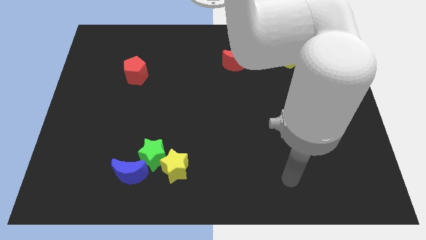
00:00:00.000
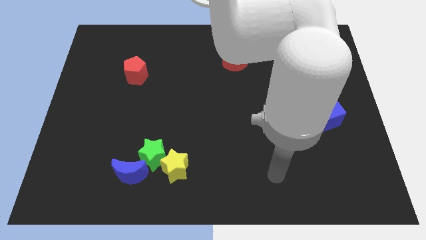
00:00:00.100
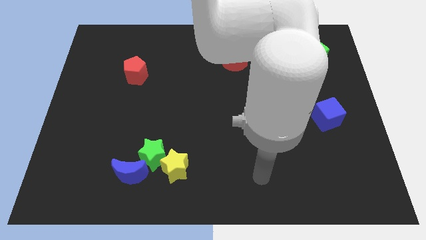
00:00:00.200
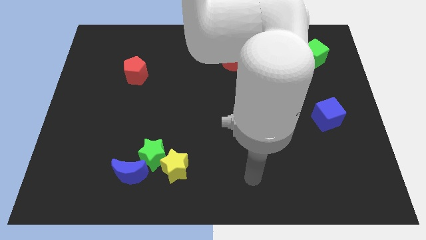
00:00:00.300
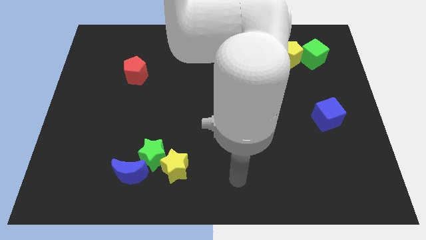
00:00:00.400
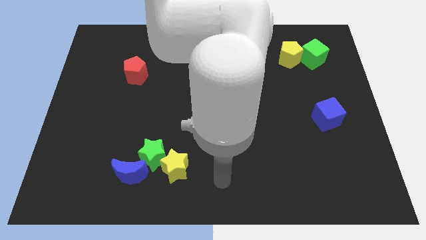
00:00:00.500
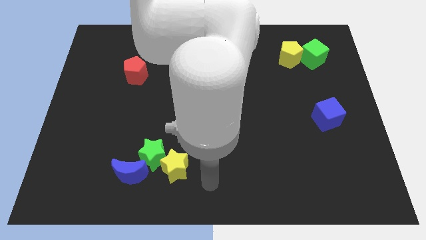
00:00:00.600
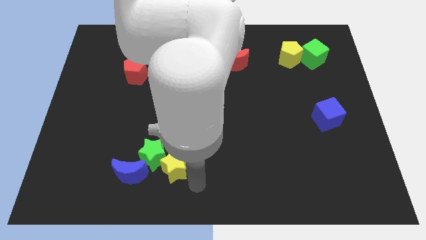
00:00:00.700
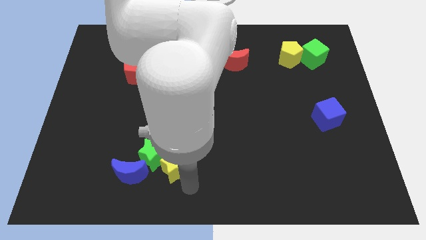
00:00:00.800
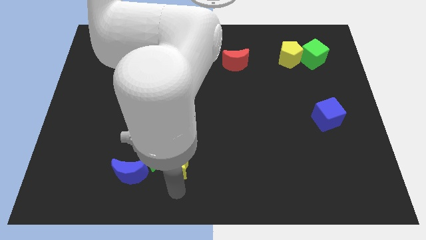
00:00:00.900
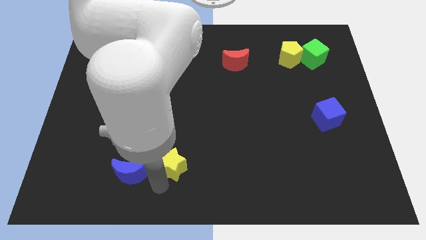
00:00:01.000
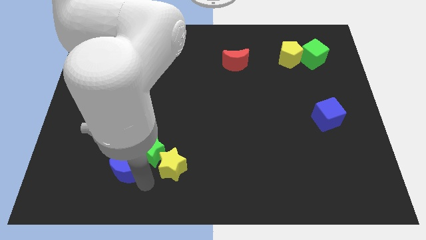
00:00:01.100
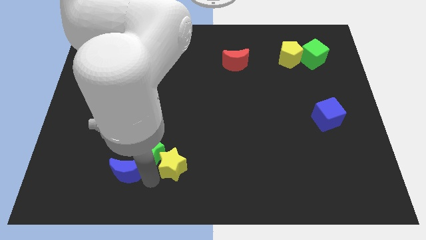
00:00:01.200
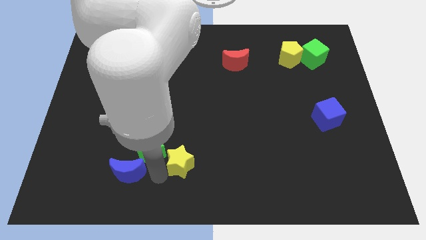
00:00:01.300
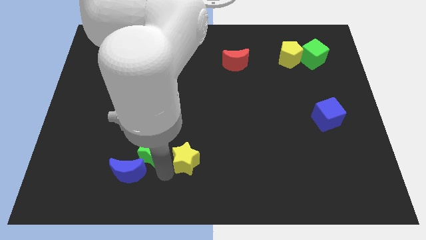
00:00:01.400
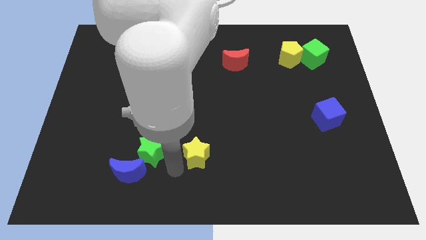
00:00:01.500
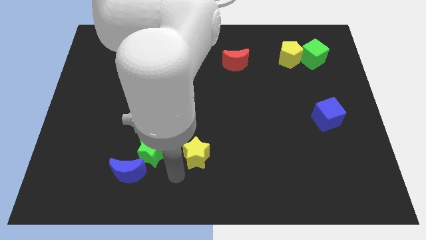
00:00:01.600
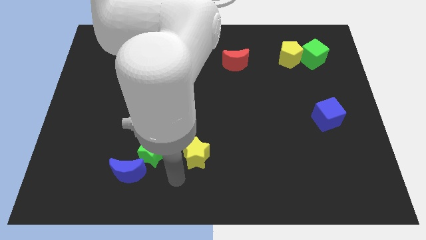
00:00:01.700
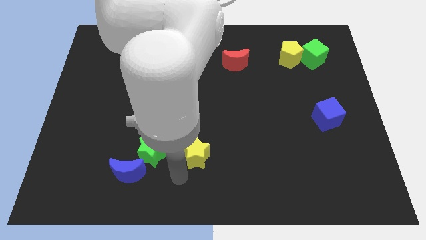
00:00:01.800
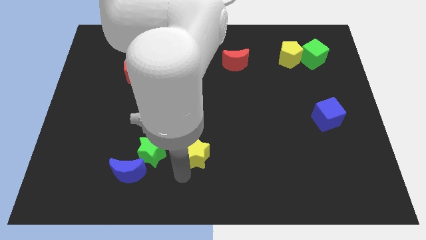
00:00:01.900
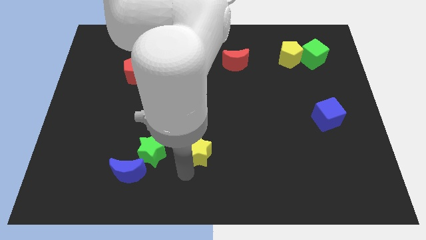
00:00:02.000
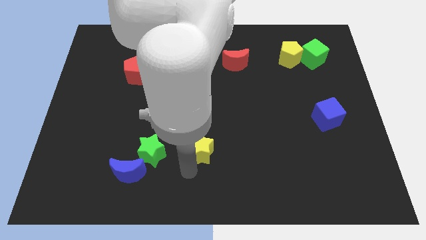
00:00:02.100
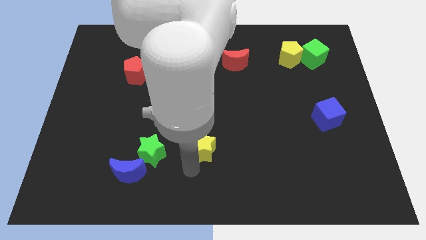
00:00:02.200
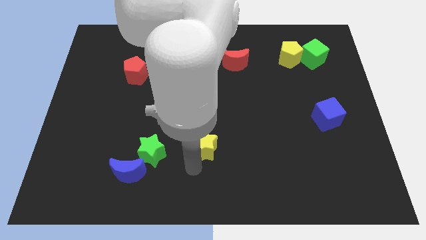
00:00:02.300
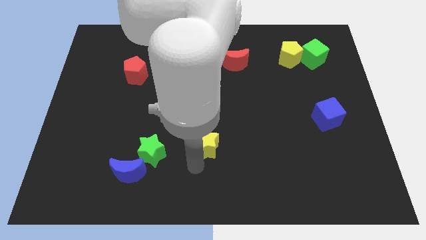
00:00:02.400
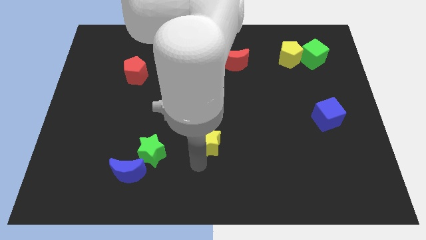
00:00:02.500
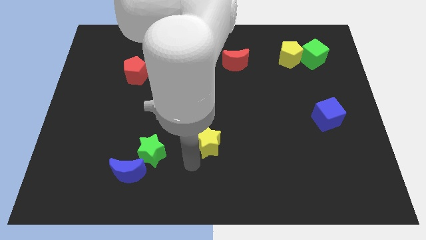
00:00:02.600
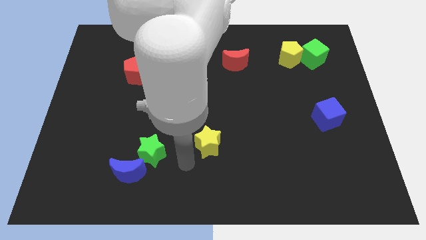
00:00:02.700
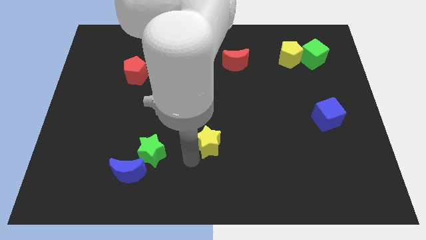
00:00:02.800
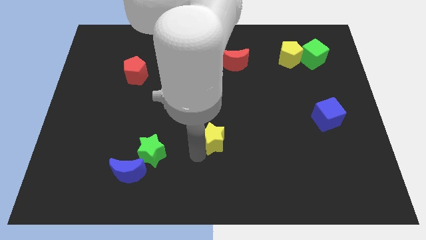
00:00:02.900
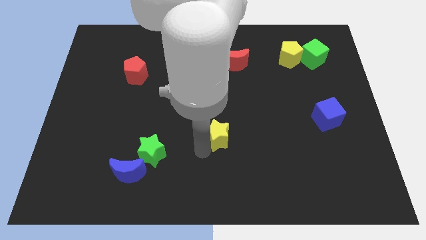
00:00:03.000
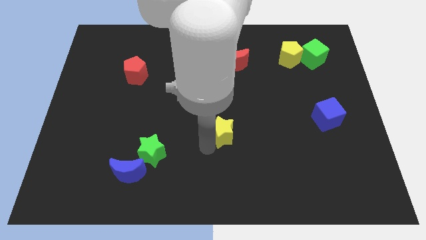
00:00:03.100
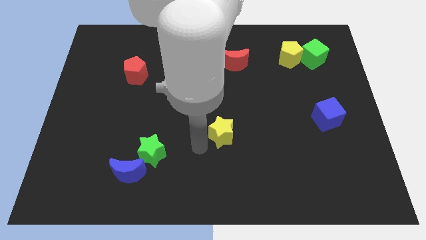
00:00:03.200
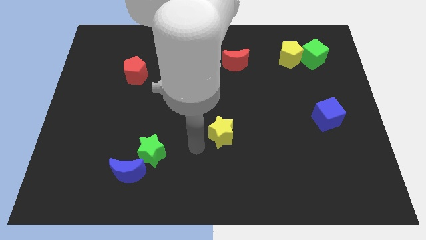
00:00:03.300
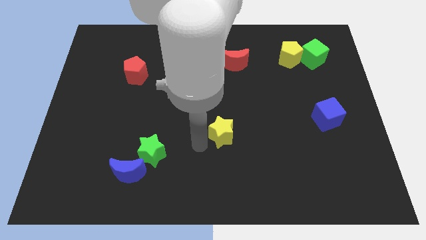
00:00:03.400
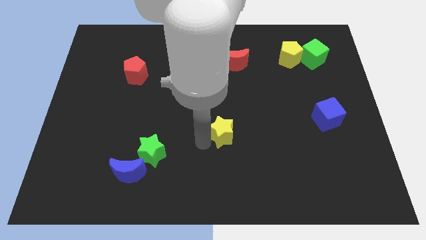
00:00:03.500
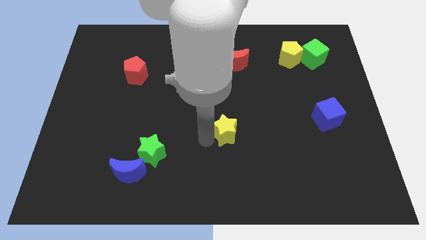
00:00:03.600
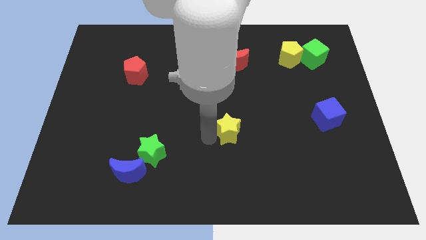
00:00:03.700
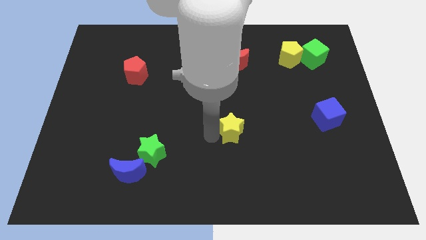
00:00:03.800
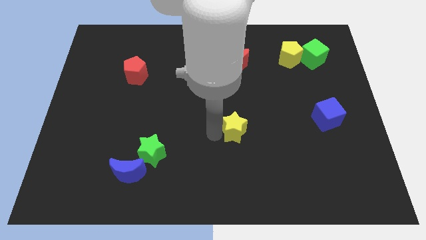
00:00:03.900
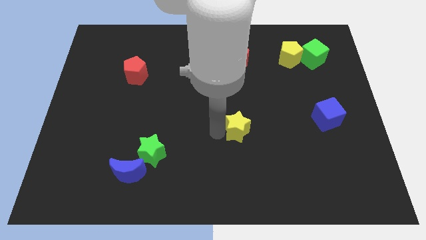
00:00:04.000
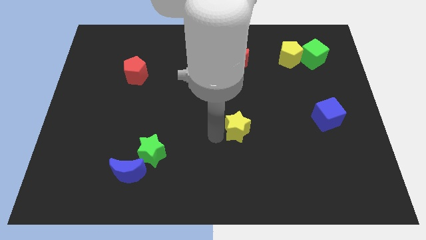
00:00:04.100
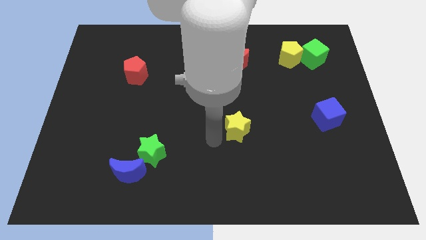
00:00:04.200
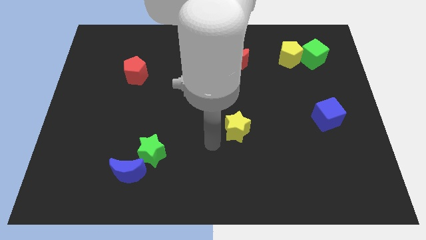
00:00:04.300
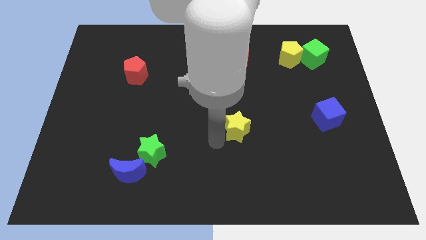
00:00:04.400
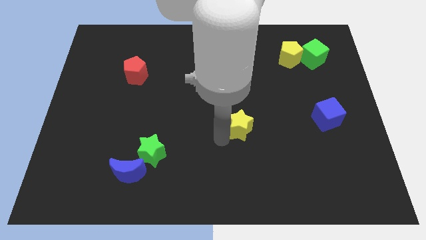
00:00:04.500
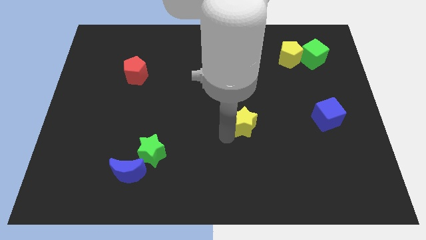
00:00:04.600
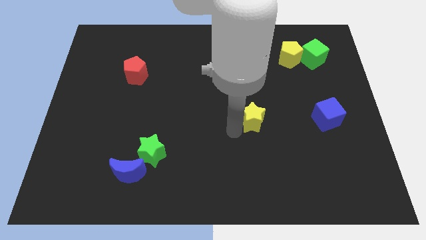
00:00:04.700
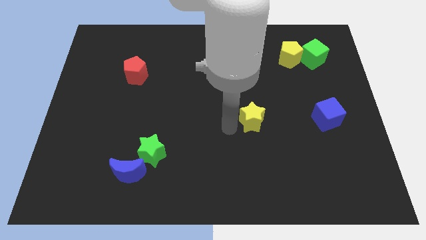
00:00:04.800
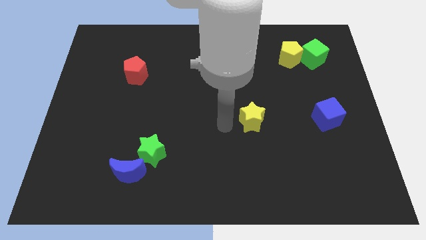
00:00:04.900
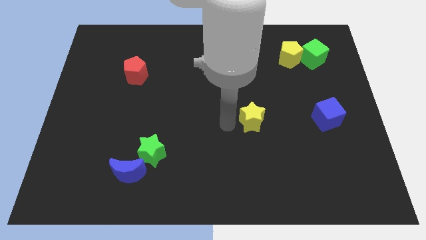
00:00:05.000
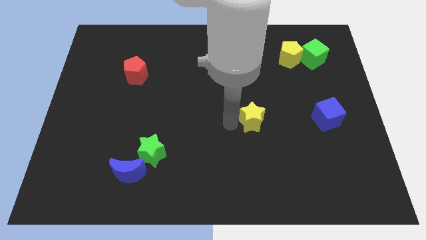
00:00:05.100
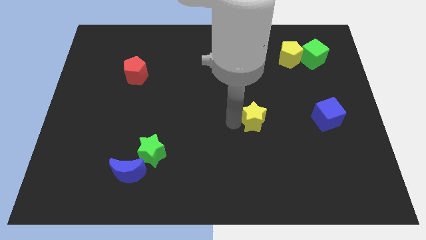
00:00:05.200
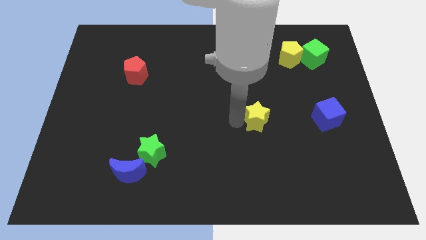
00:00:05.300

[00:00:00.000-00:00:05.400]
move the yellow star to the left of the blue cube

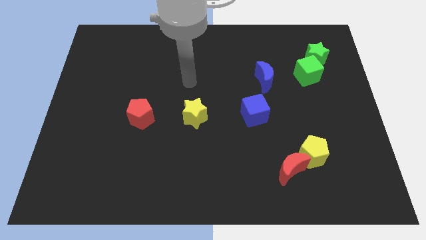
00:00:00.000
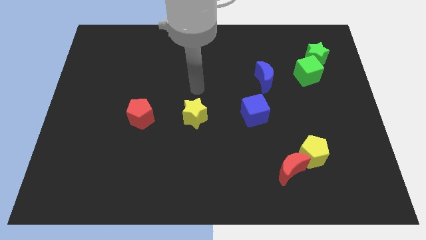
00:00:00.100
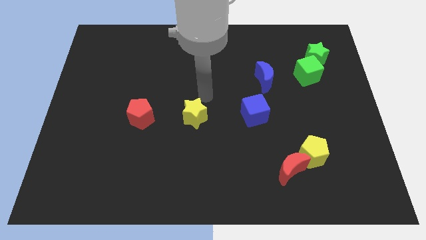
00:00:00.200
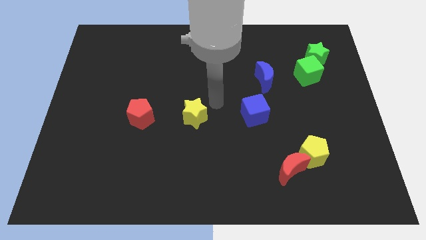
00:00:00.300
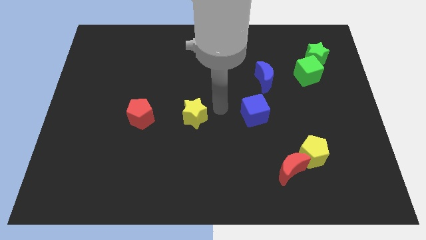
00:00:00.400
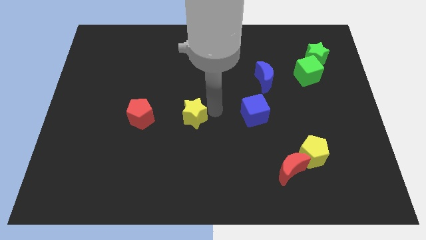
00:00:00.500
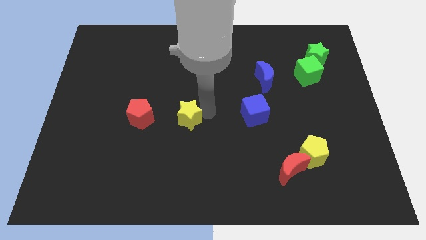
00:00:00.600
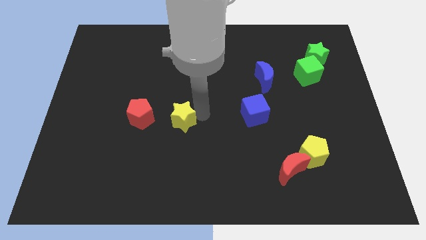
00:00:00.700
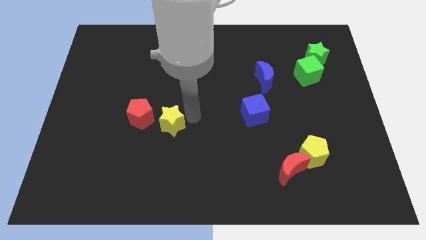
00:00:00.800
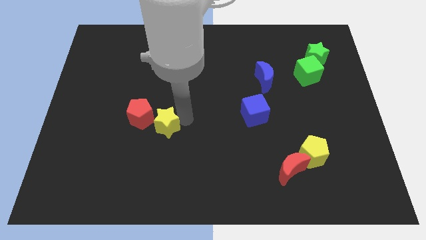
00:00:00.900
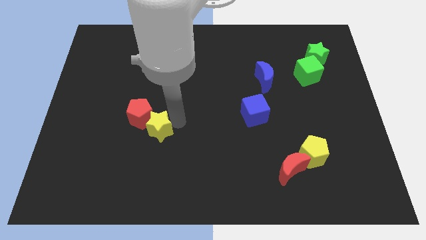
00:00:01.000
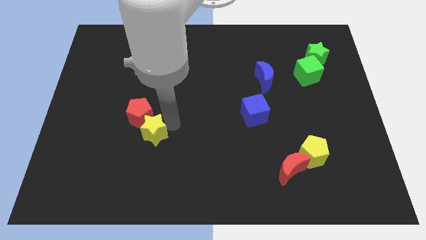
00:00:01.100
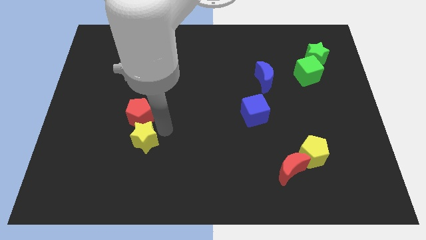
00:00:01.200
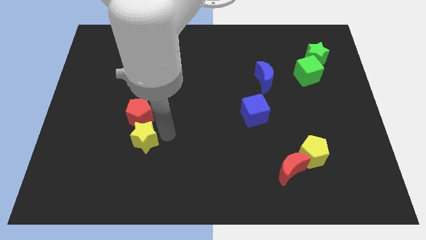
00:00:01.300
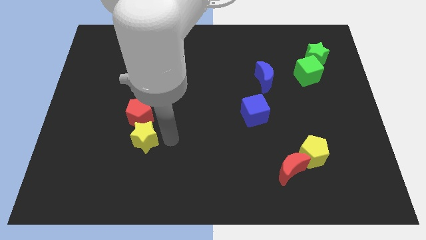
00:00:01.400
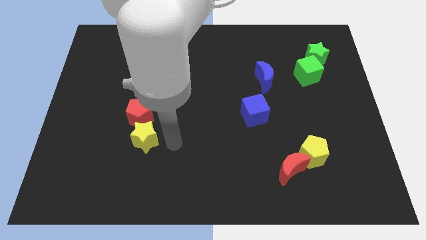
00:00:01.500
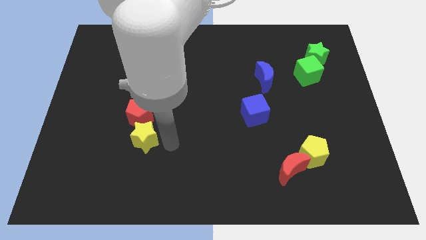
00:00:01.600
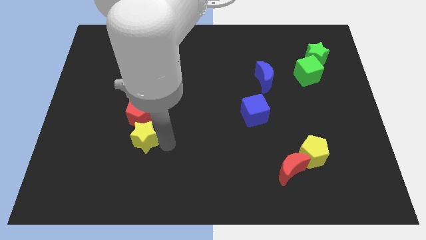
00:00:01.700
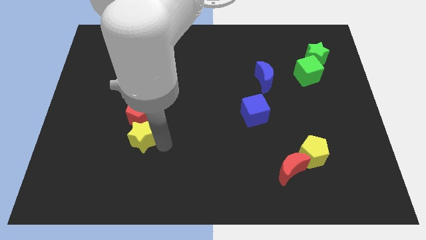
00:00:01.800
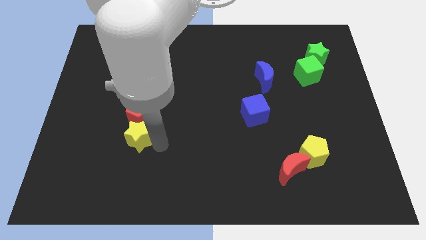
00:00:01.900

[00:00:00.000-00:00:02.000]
move the yellow star to the bottom left of the red pentagon

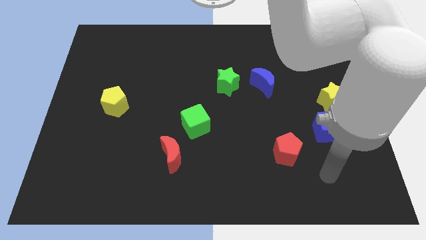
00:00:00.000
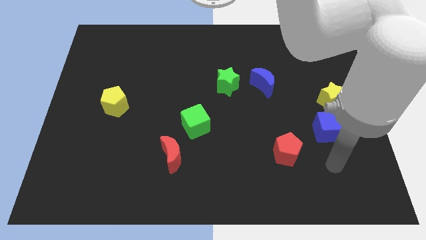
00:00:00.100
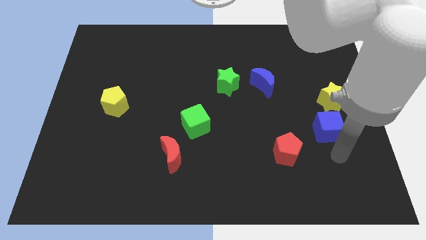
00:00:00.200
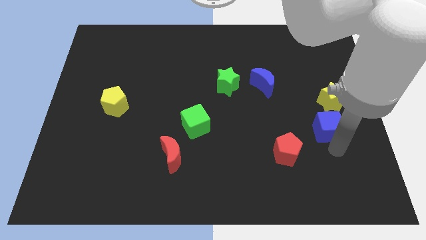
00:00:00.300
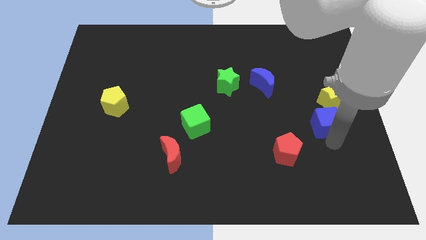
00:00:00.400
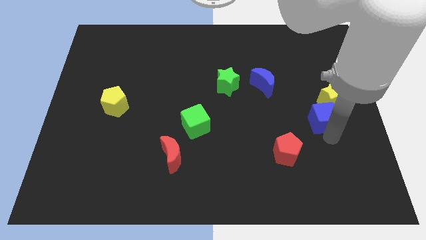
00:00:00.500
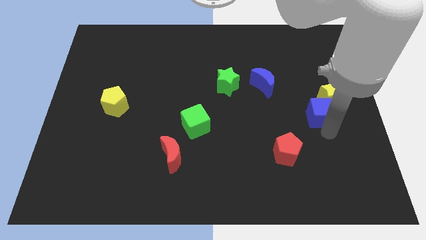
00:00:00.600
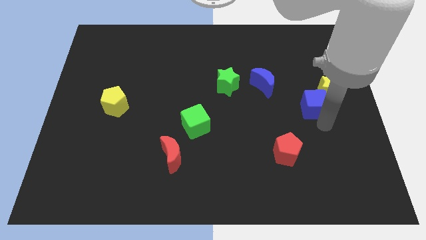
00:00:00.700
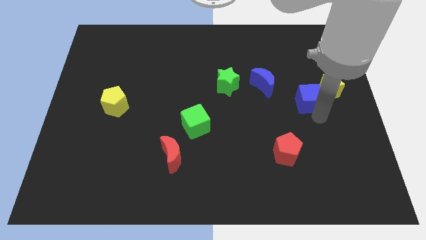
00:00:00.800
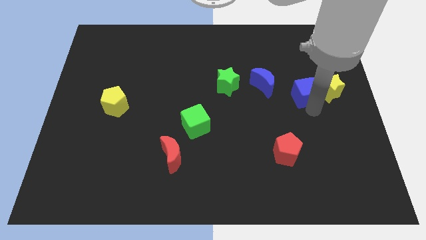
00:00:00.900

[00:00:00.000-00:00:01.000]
put the blue cube to the top left of the yellow star
